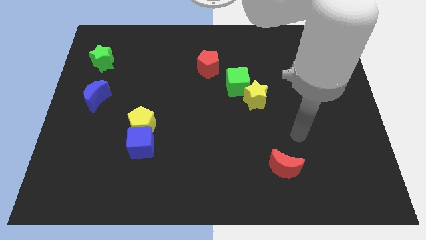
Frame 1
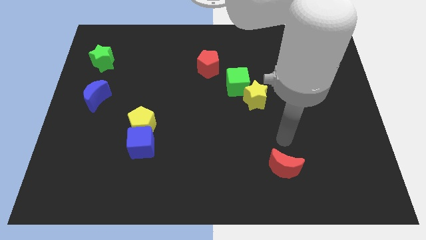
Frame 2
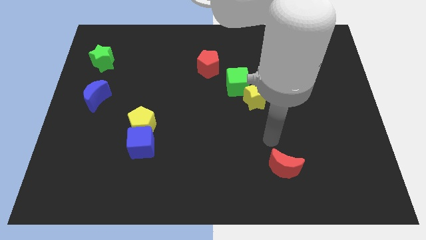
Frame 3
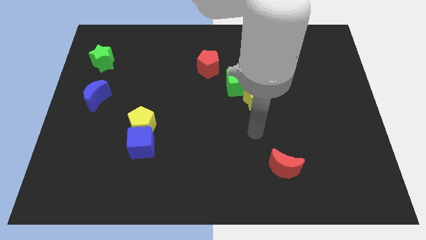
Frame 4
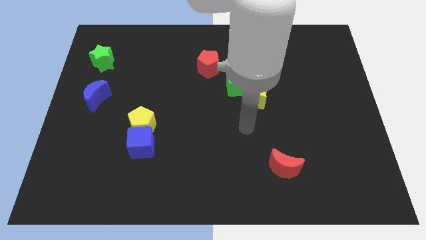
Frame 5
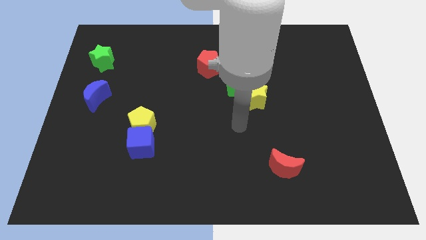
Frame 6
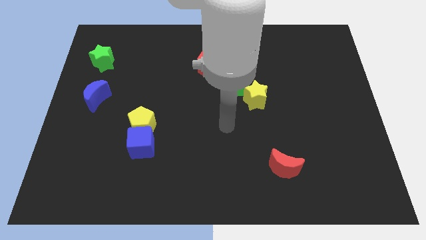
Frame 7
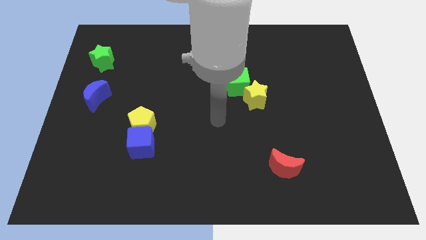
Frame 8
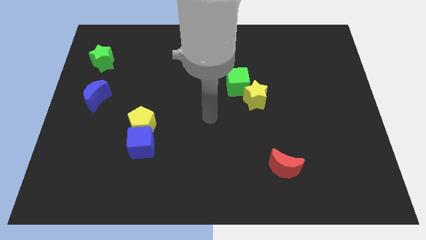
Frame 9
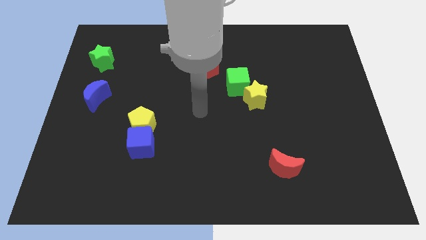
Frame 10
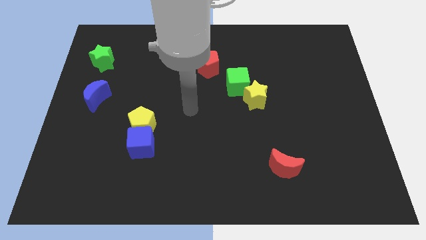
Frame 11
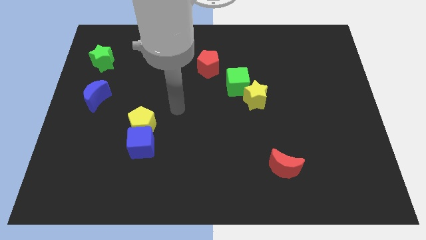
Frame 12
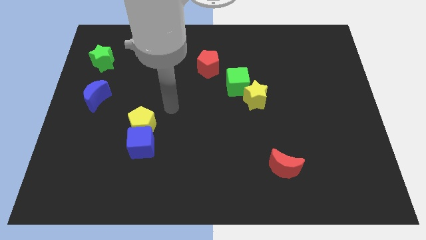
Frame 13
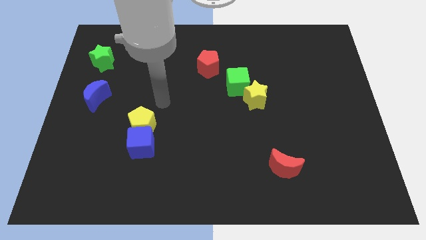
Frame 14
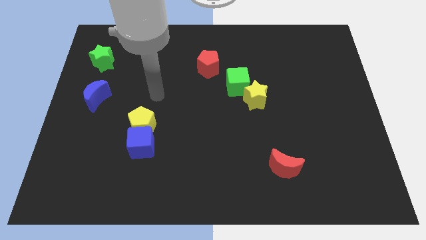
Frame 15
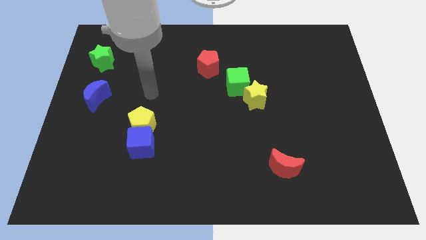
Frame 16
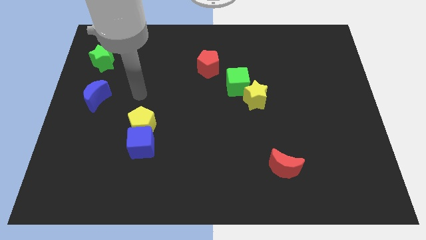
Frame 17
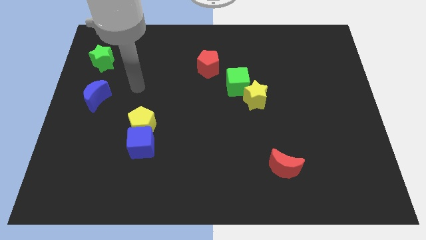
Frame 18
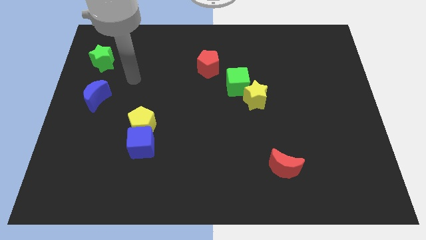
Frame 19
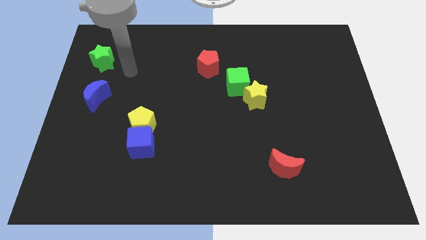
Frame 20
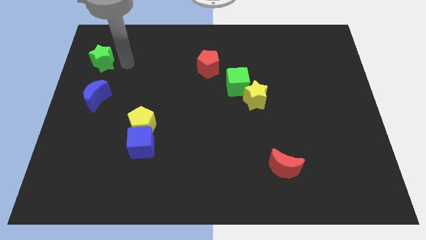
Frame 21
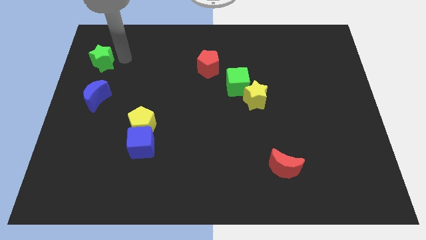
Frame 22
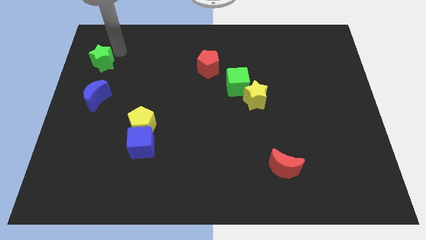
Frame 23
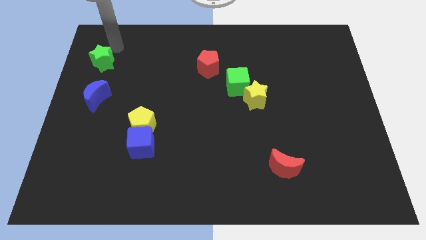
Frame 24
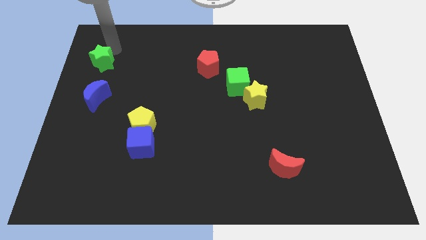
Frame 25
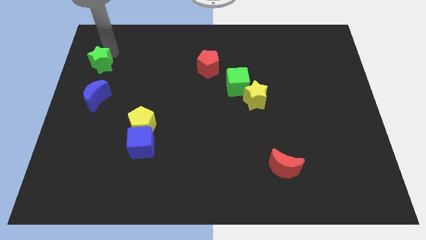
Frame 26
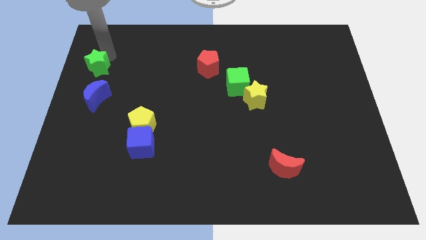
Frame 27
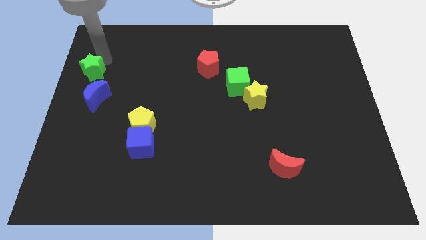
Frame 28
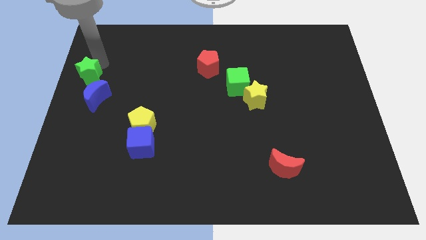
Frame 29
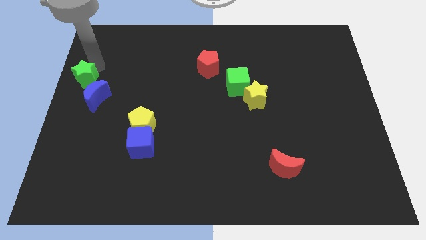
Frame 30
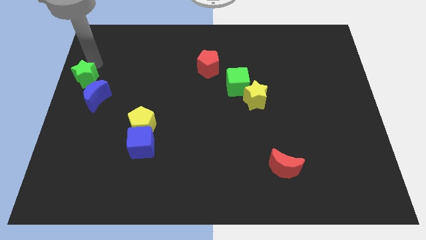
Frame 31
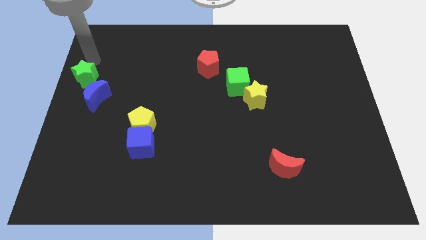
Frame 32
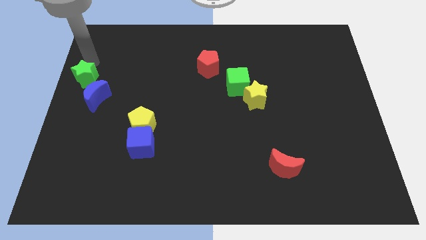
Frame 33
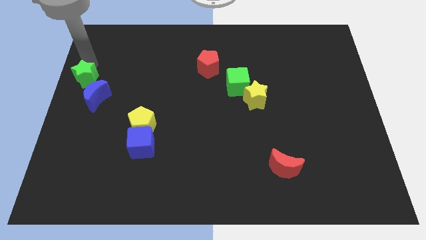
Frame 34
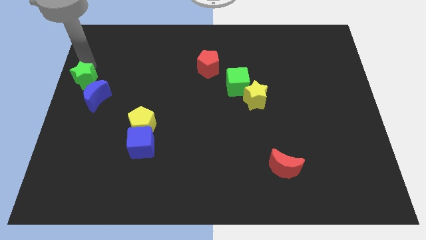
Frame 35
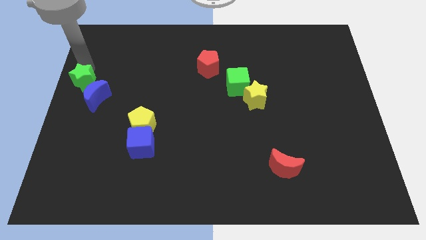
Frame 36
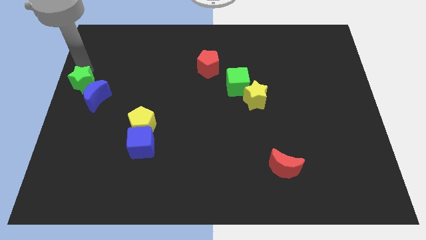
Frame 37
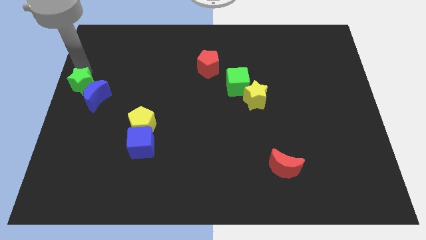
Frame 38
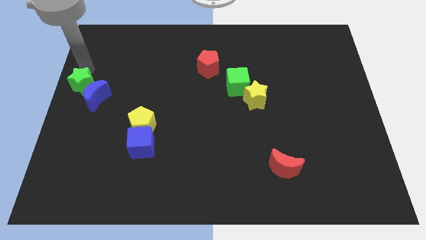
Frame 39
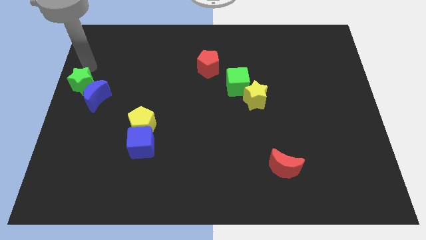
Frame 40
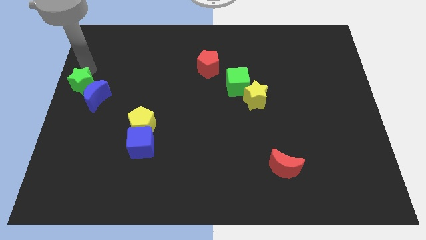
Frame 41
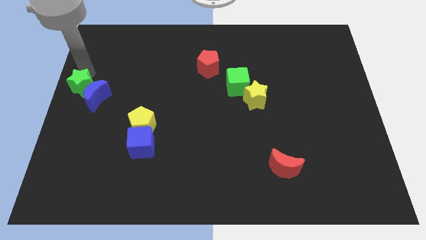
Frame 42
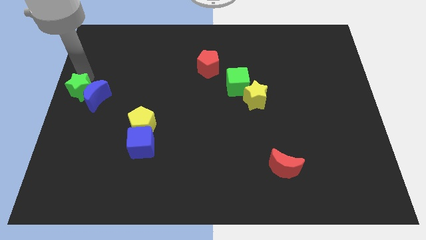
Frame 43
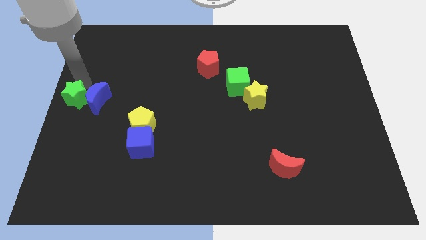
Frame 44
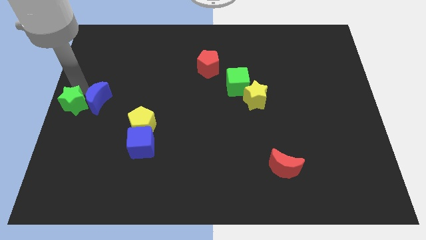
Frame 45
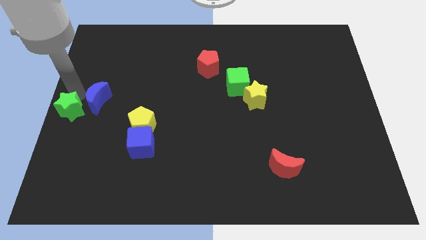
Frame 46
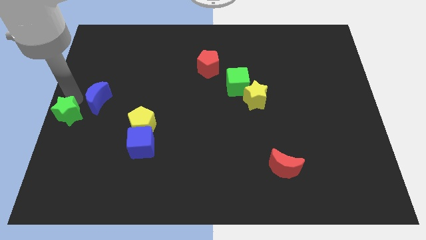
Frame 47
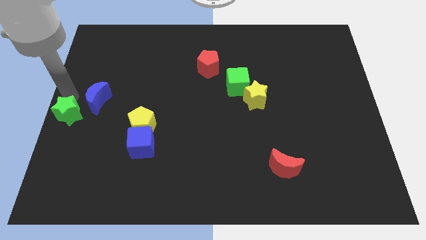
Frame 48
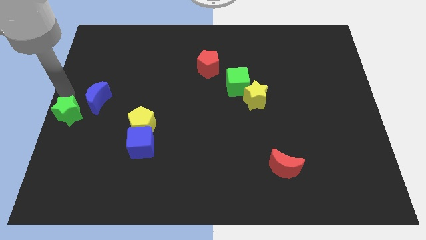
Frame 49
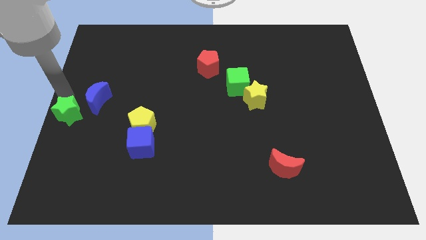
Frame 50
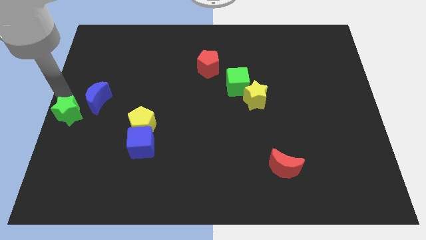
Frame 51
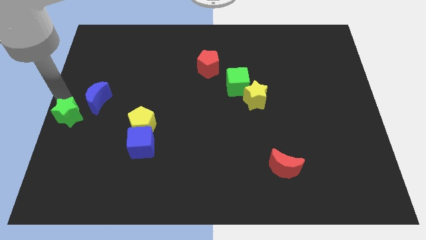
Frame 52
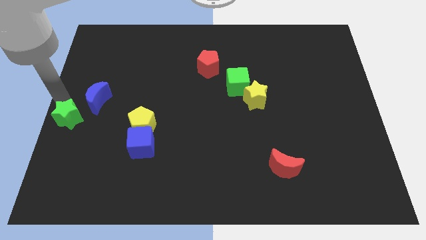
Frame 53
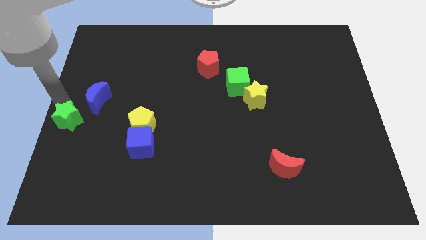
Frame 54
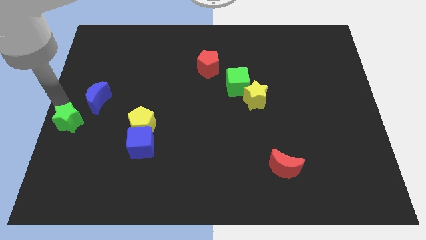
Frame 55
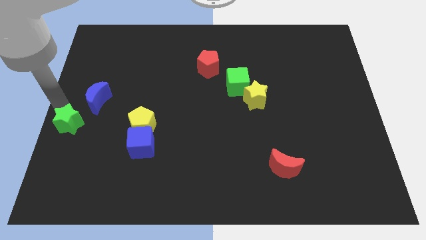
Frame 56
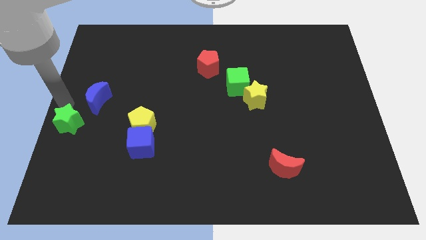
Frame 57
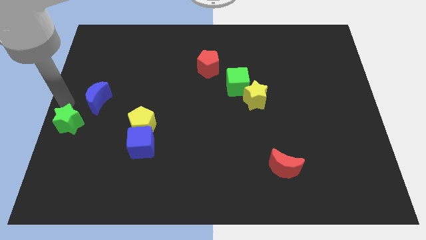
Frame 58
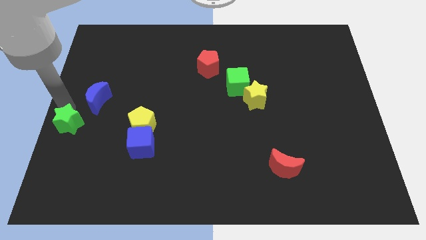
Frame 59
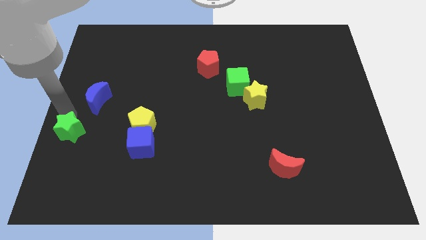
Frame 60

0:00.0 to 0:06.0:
push the green star down

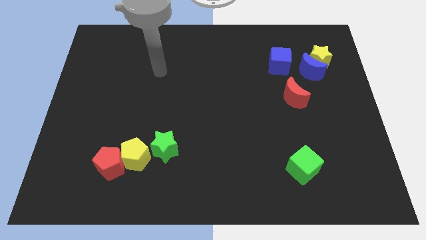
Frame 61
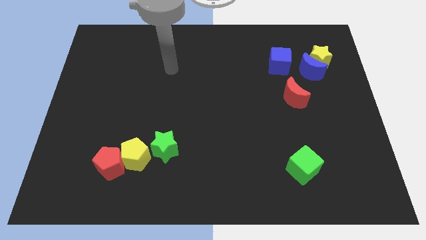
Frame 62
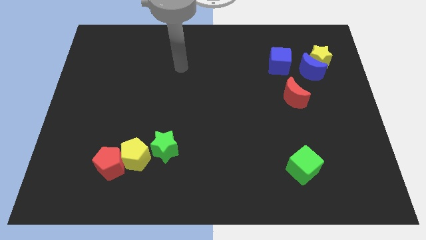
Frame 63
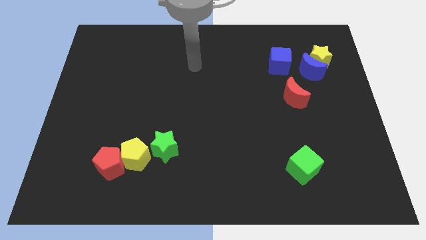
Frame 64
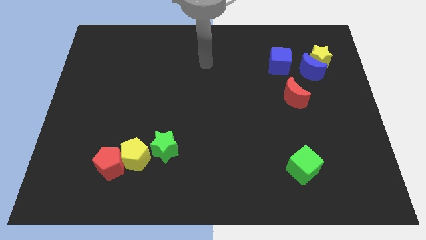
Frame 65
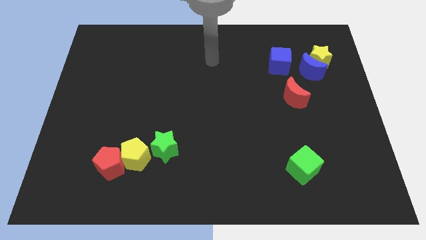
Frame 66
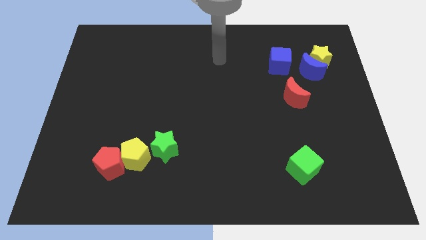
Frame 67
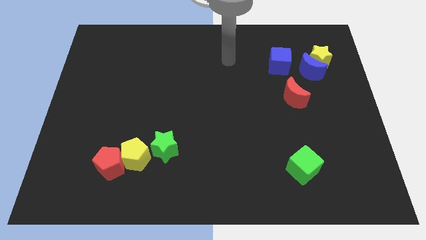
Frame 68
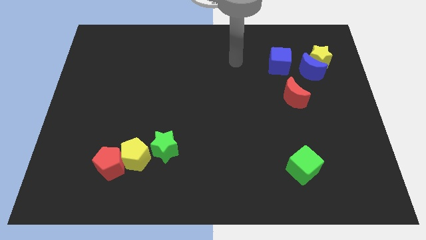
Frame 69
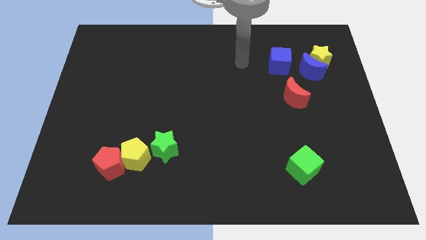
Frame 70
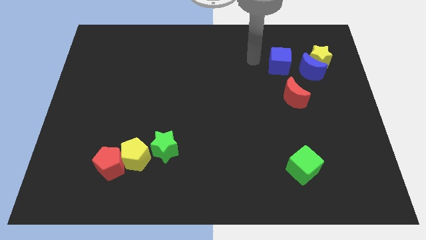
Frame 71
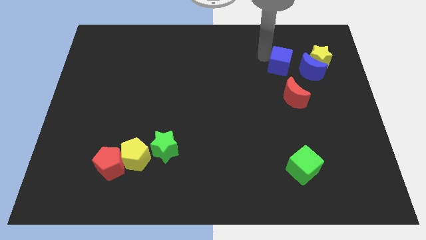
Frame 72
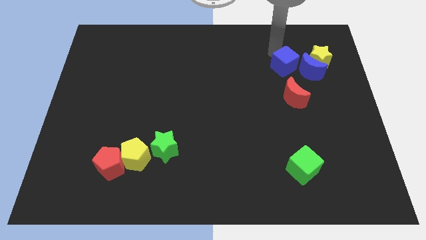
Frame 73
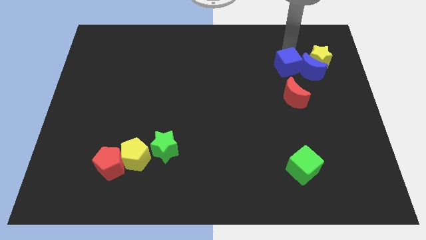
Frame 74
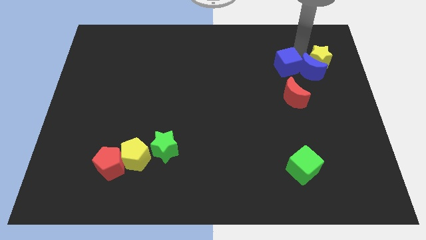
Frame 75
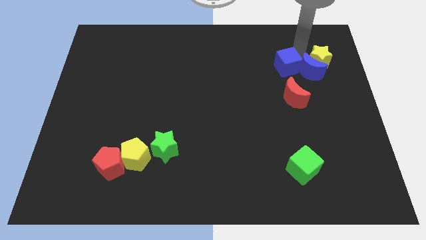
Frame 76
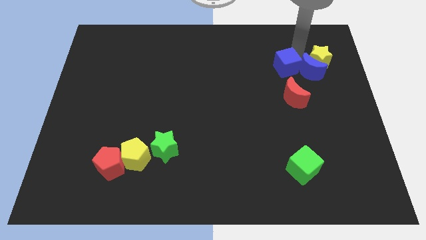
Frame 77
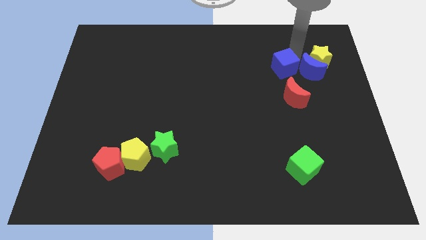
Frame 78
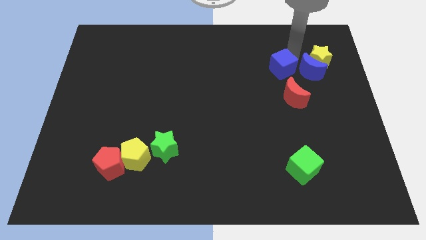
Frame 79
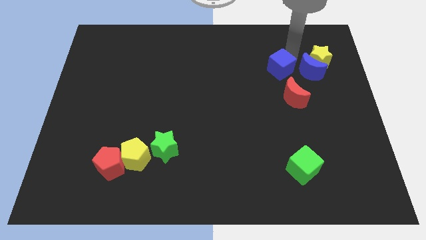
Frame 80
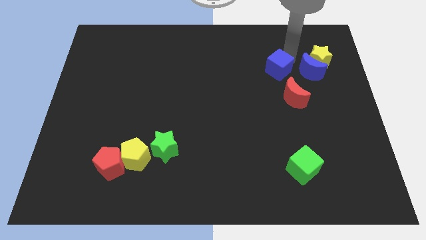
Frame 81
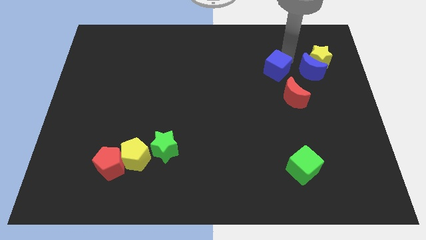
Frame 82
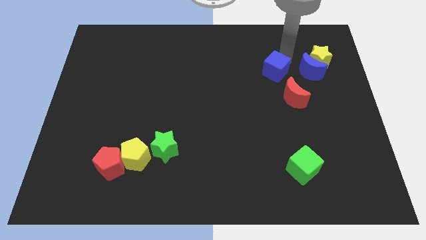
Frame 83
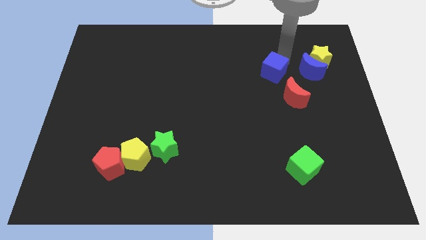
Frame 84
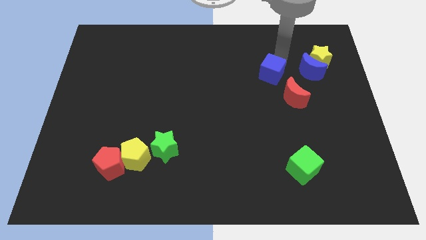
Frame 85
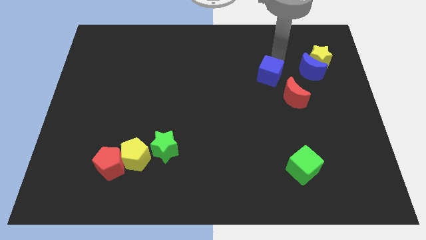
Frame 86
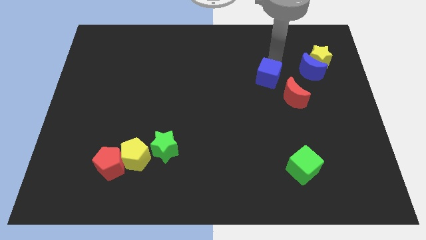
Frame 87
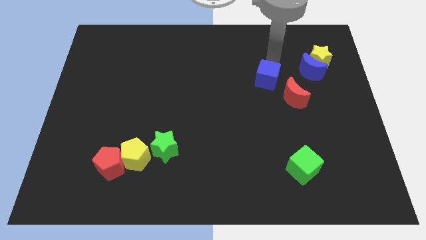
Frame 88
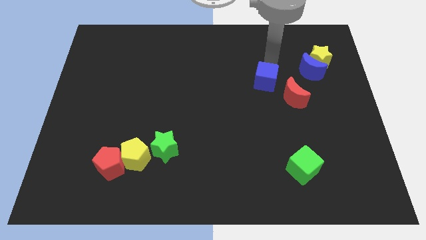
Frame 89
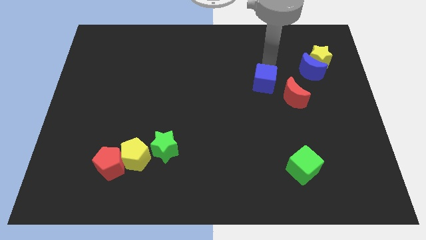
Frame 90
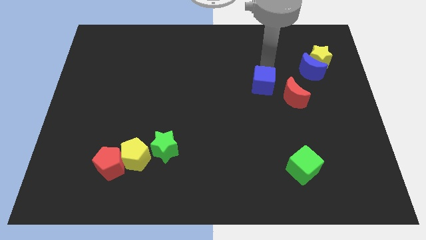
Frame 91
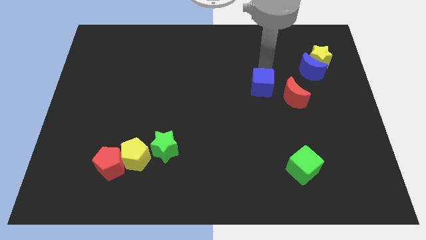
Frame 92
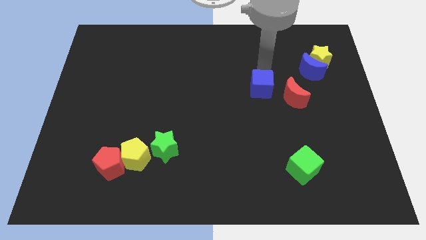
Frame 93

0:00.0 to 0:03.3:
slightly move the blue cube down
